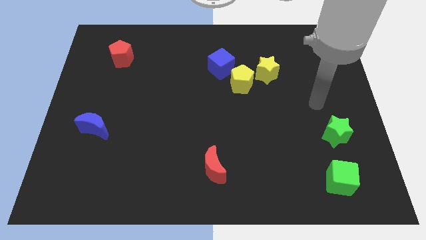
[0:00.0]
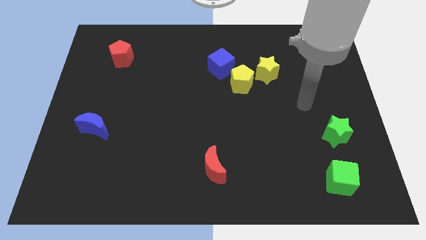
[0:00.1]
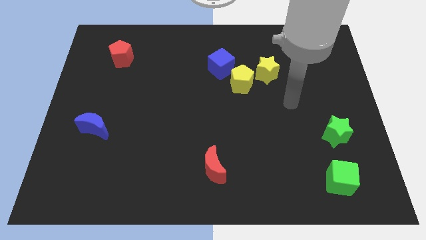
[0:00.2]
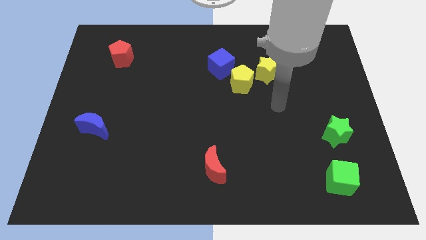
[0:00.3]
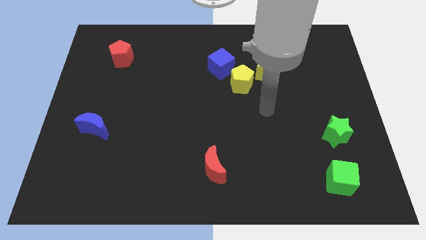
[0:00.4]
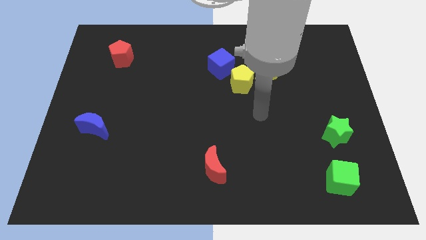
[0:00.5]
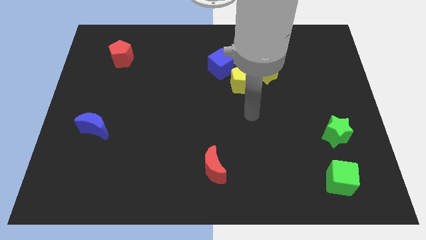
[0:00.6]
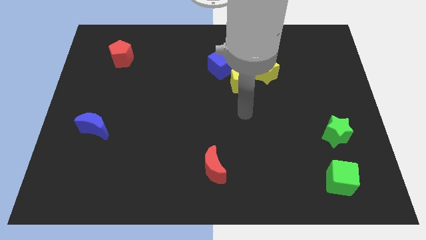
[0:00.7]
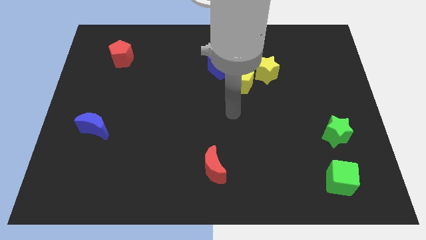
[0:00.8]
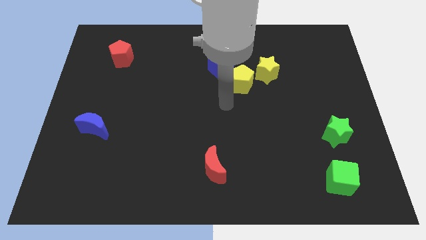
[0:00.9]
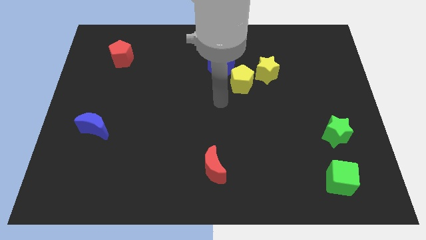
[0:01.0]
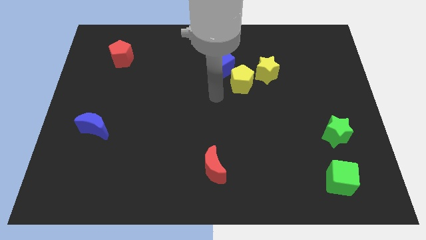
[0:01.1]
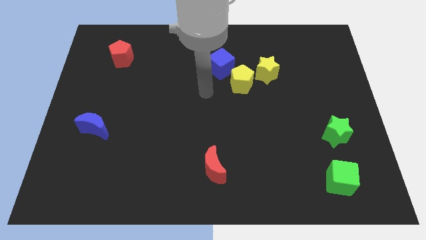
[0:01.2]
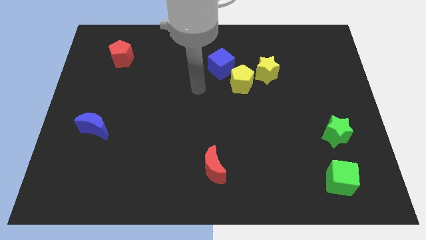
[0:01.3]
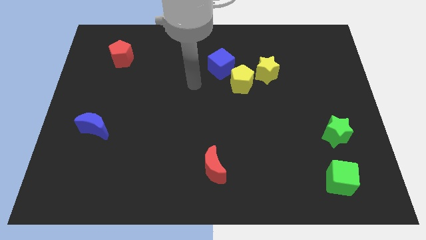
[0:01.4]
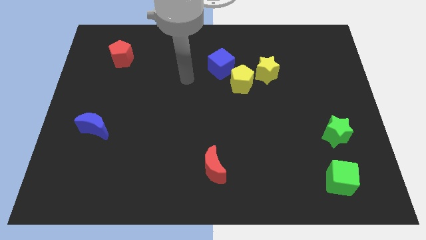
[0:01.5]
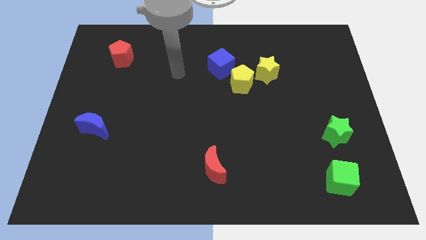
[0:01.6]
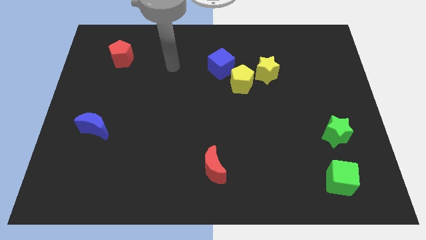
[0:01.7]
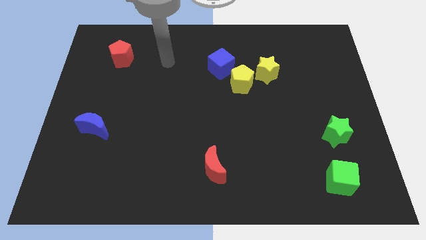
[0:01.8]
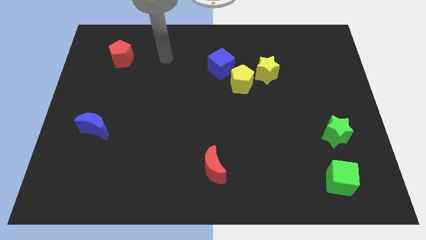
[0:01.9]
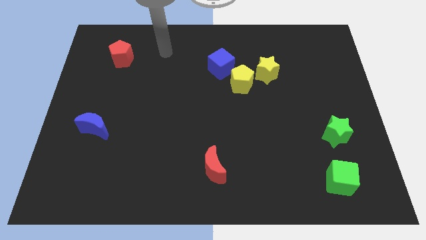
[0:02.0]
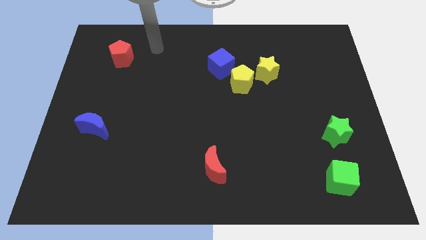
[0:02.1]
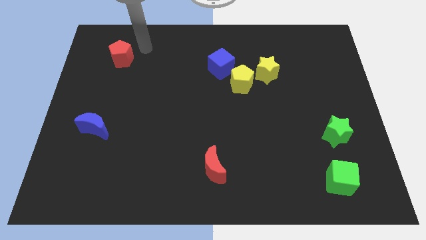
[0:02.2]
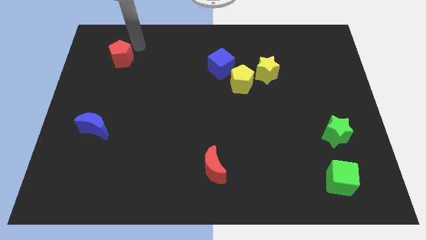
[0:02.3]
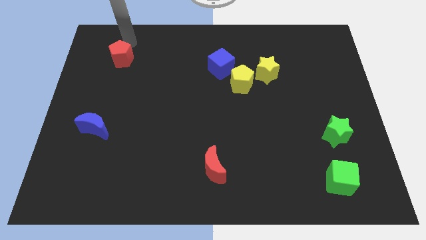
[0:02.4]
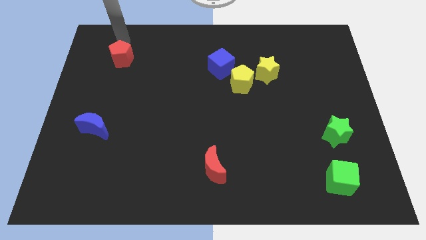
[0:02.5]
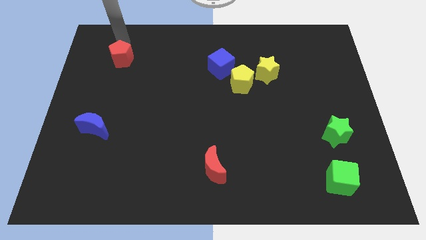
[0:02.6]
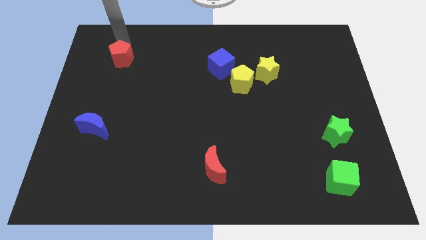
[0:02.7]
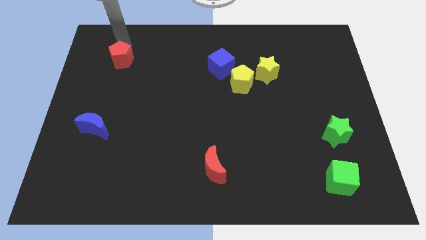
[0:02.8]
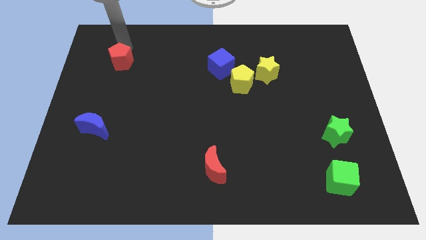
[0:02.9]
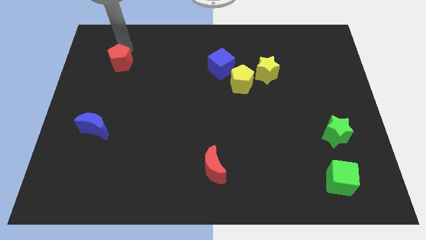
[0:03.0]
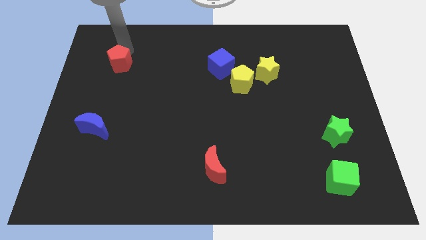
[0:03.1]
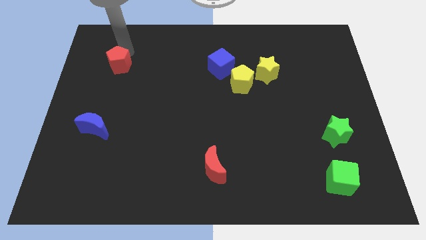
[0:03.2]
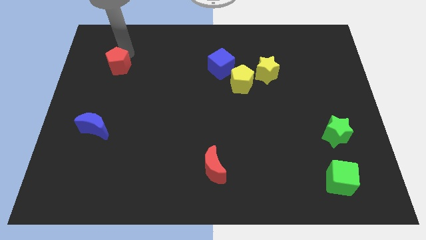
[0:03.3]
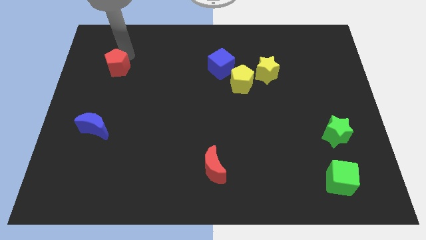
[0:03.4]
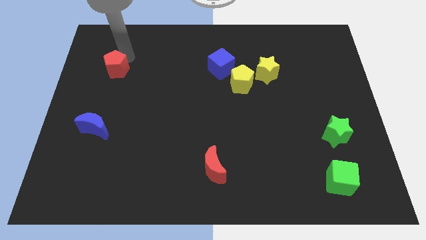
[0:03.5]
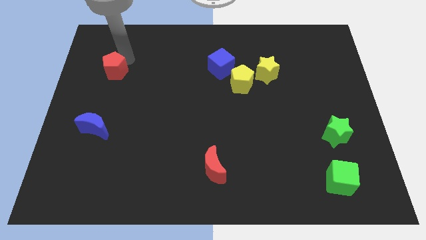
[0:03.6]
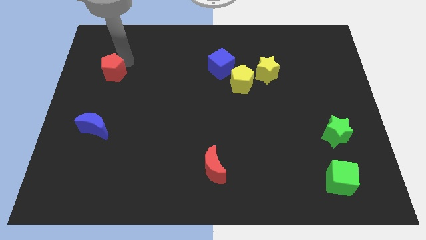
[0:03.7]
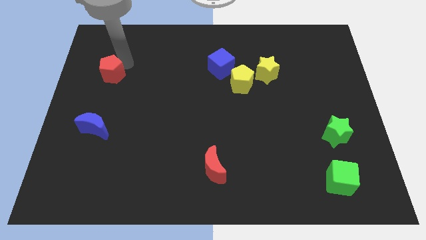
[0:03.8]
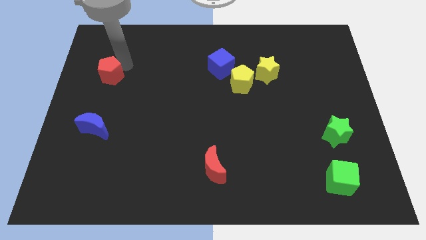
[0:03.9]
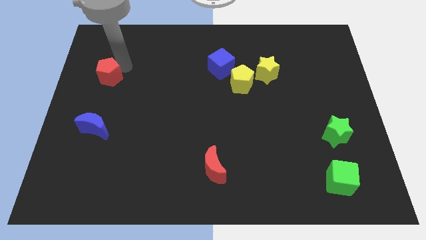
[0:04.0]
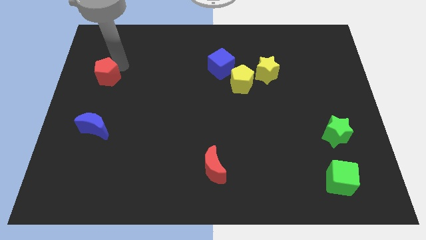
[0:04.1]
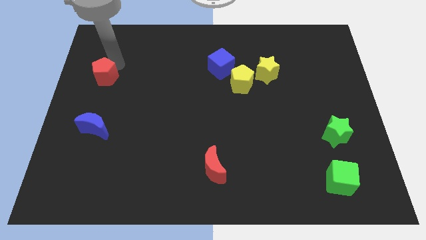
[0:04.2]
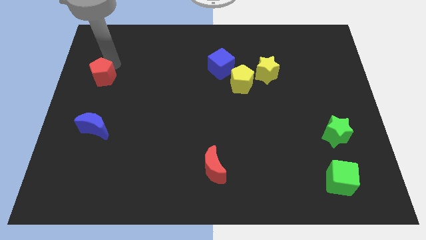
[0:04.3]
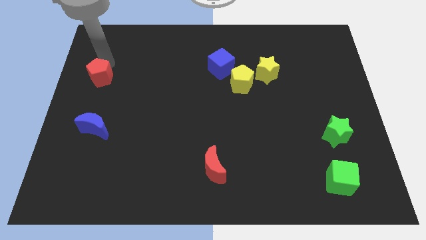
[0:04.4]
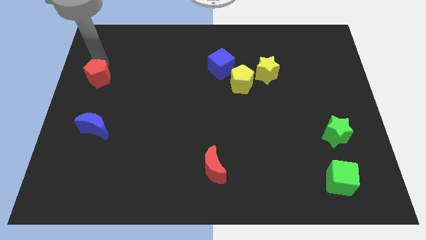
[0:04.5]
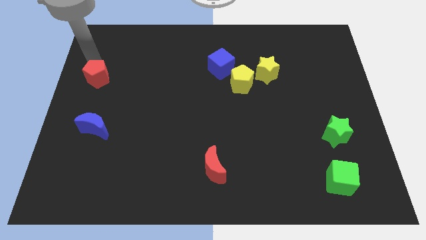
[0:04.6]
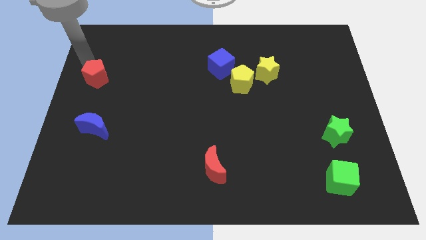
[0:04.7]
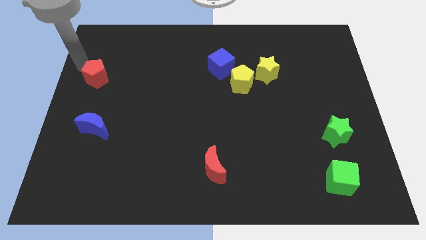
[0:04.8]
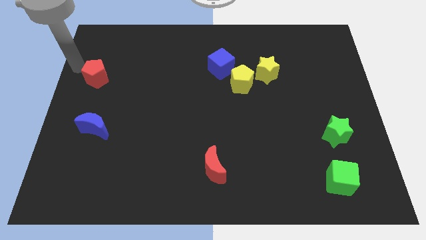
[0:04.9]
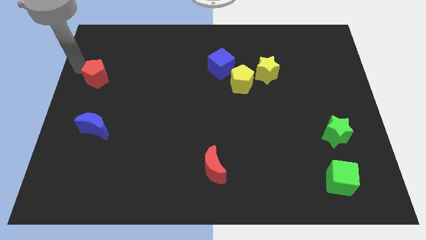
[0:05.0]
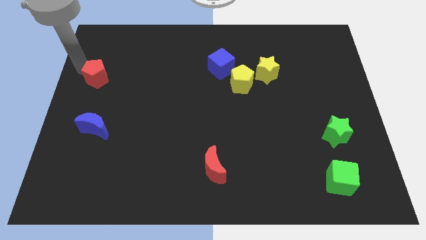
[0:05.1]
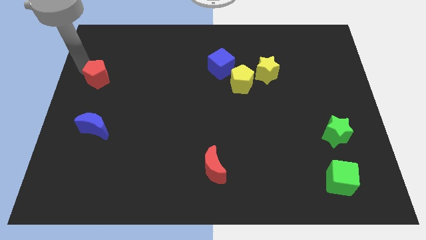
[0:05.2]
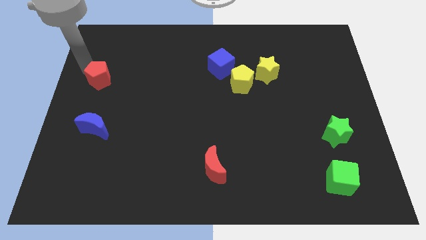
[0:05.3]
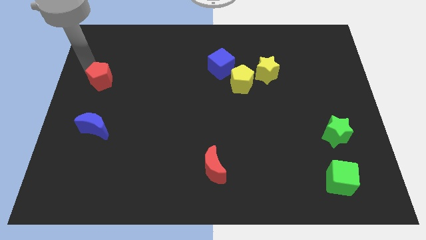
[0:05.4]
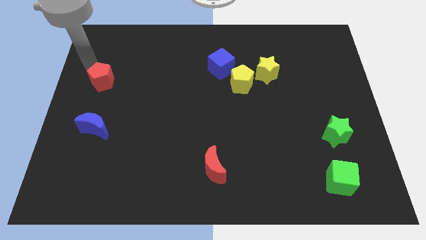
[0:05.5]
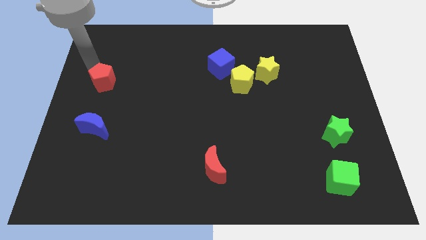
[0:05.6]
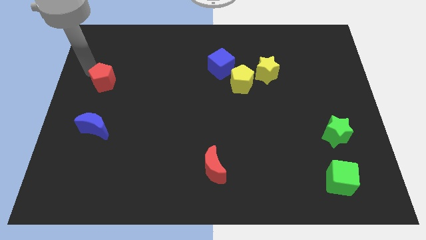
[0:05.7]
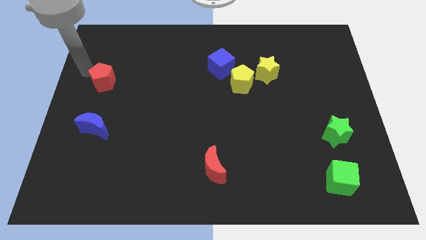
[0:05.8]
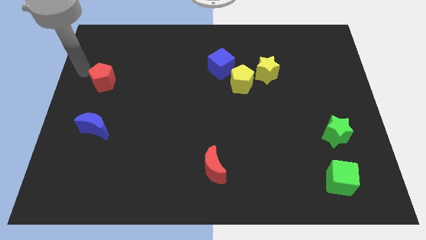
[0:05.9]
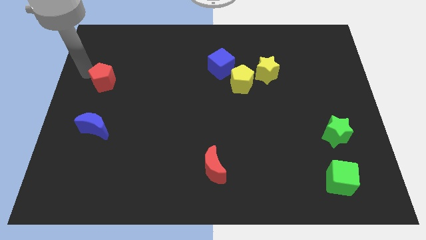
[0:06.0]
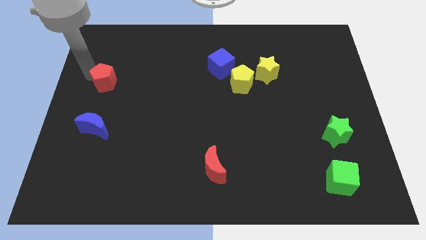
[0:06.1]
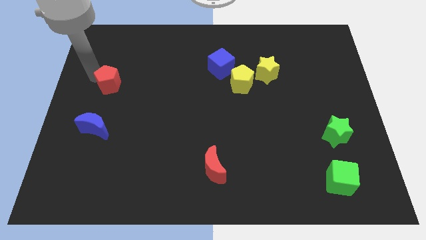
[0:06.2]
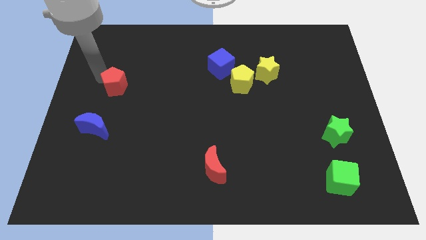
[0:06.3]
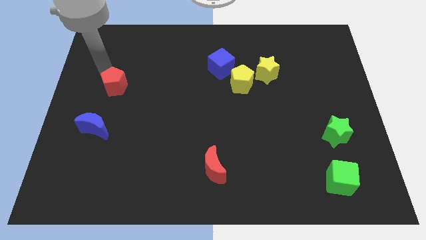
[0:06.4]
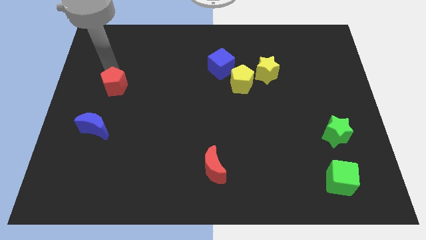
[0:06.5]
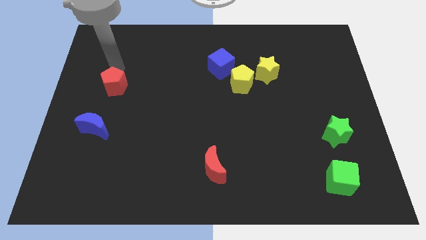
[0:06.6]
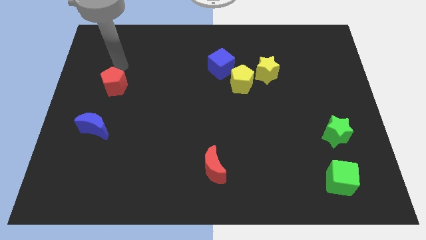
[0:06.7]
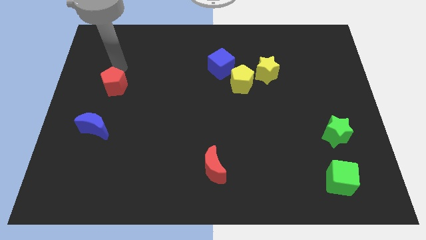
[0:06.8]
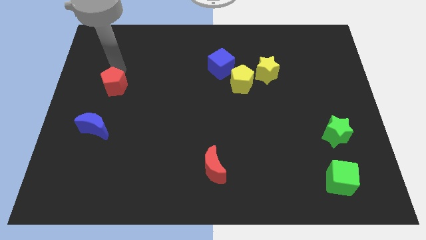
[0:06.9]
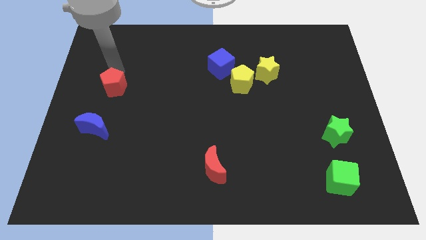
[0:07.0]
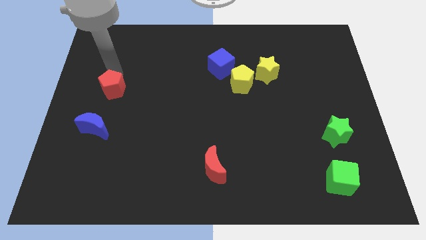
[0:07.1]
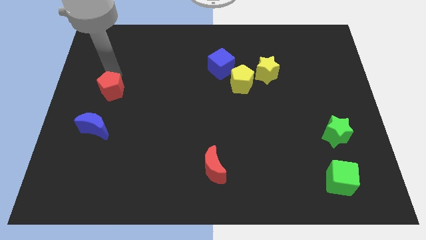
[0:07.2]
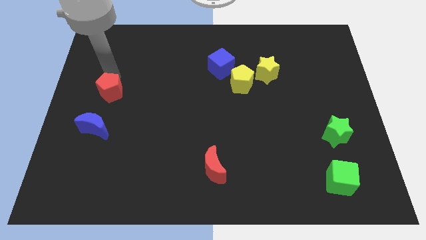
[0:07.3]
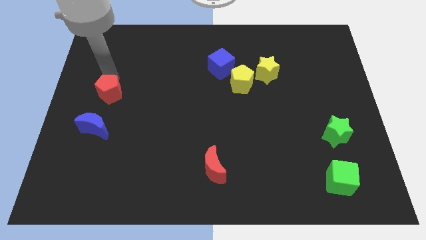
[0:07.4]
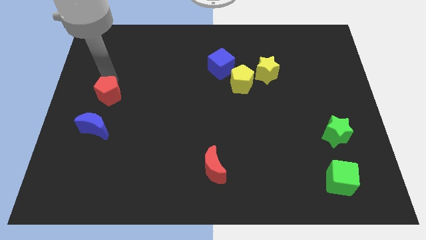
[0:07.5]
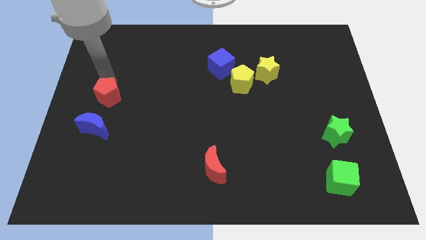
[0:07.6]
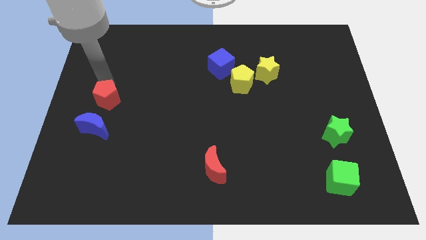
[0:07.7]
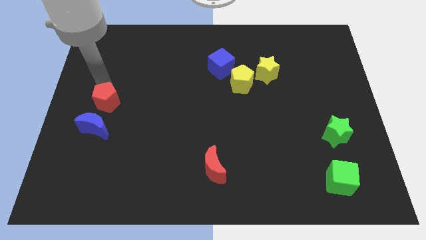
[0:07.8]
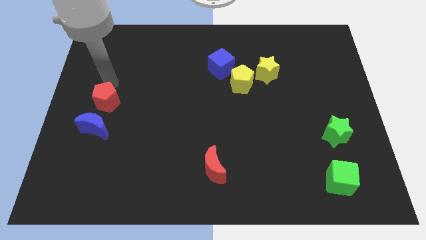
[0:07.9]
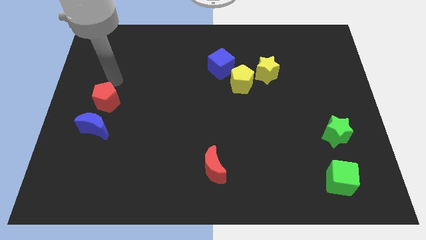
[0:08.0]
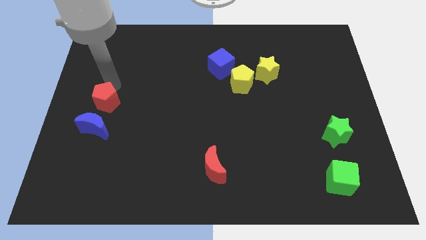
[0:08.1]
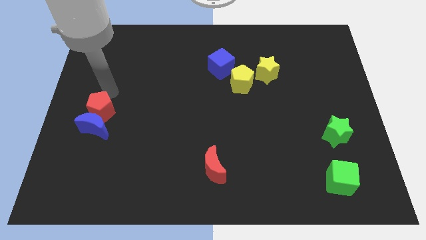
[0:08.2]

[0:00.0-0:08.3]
push the red pentagon next to the blue moon
